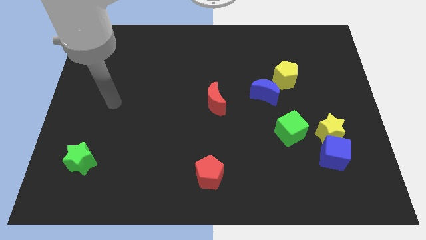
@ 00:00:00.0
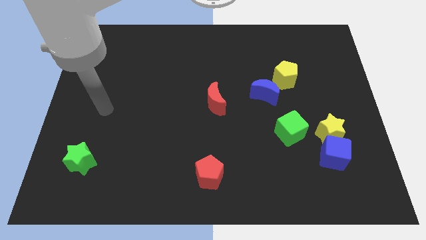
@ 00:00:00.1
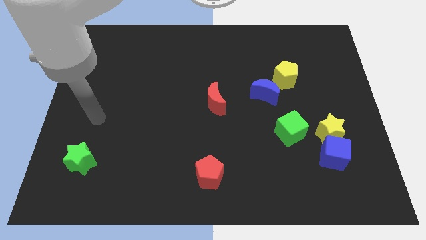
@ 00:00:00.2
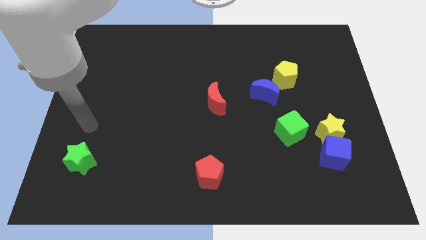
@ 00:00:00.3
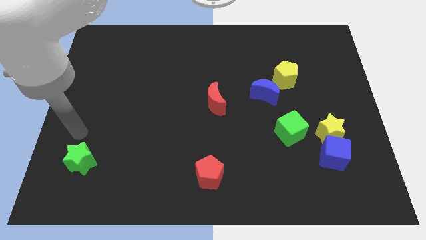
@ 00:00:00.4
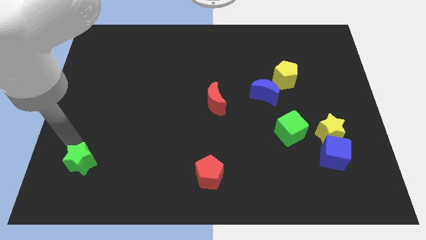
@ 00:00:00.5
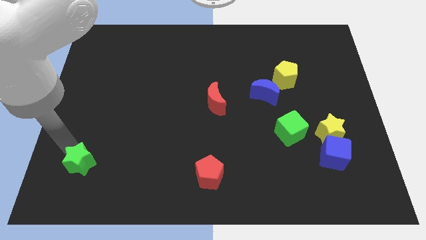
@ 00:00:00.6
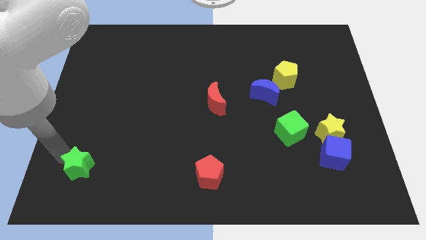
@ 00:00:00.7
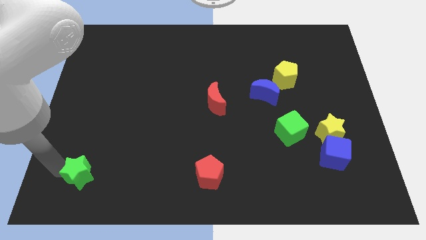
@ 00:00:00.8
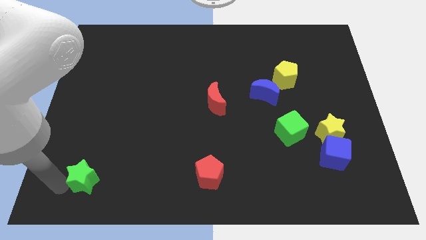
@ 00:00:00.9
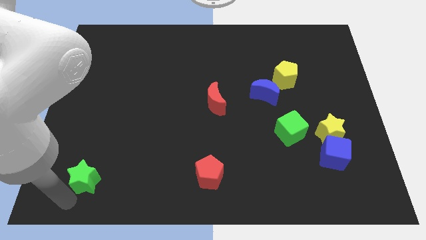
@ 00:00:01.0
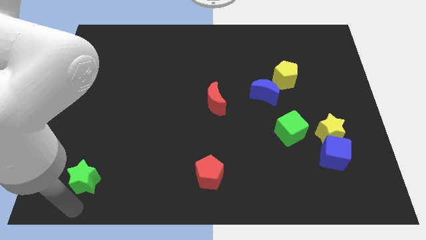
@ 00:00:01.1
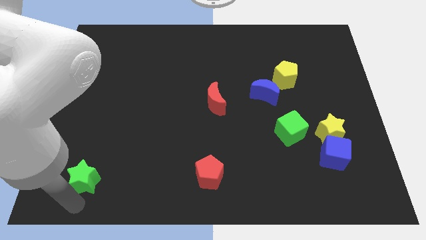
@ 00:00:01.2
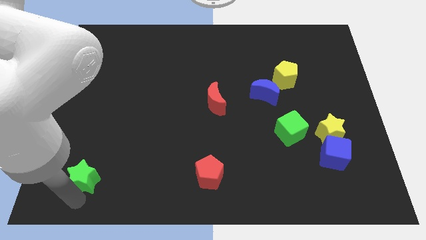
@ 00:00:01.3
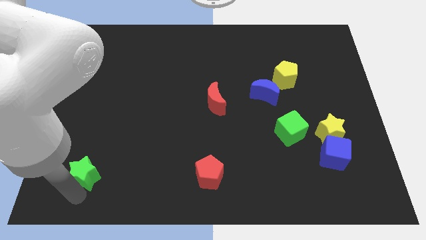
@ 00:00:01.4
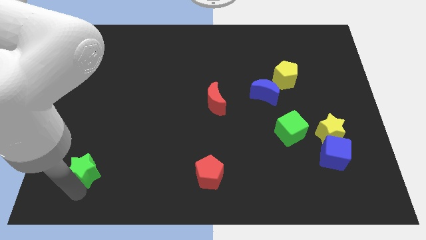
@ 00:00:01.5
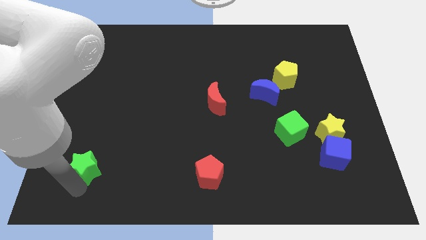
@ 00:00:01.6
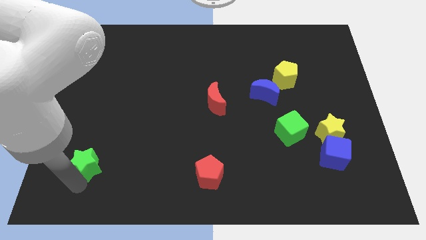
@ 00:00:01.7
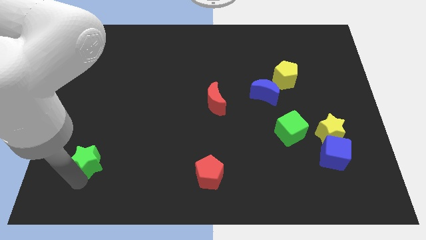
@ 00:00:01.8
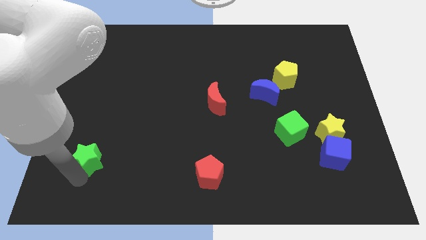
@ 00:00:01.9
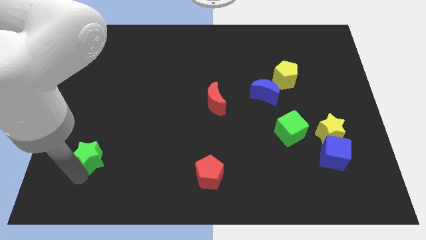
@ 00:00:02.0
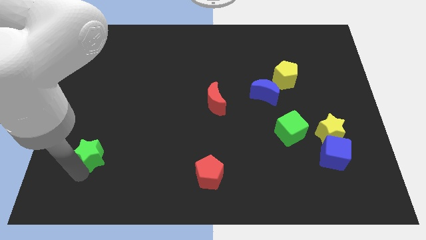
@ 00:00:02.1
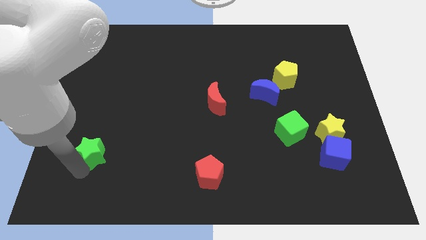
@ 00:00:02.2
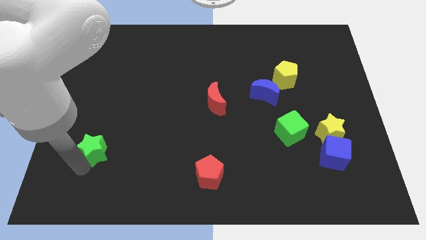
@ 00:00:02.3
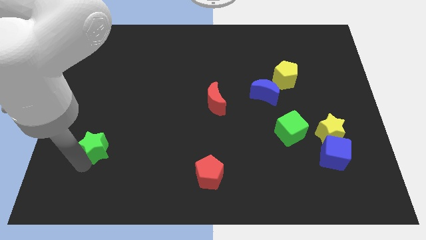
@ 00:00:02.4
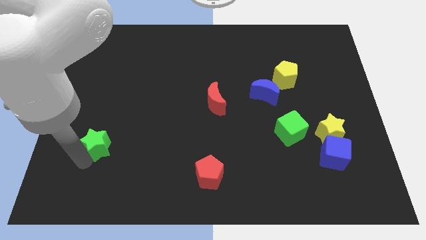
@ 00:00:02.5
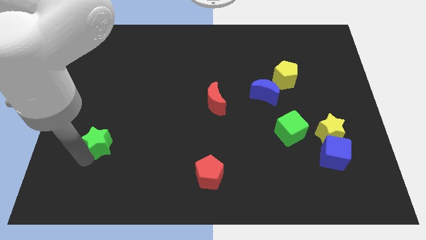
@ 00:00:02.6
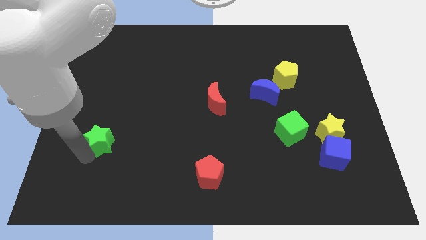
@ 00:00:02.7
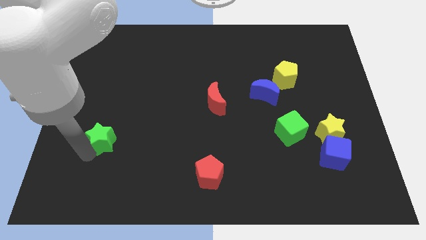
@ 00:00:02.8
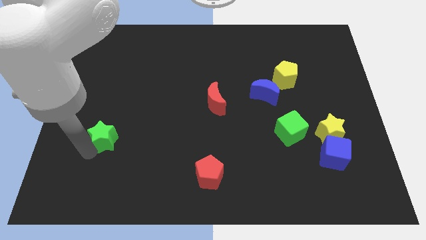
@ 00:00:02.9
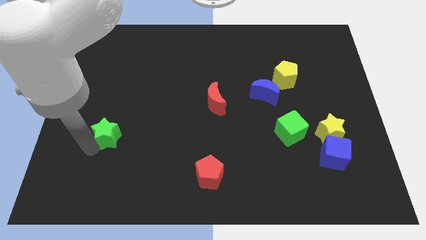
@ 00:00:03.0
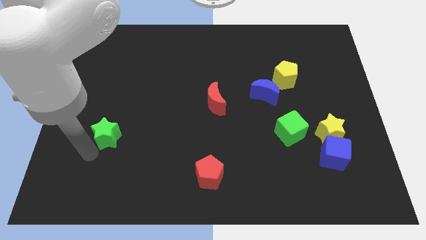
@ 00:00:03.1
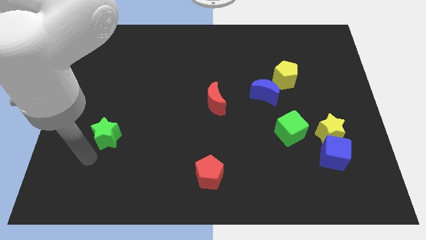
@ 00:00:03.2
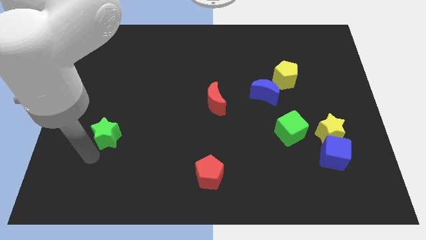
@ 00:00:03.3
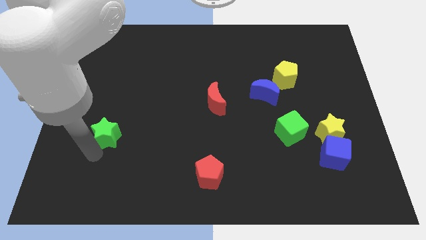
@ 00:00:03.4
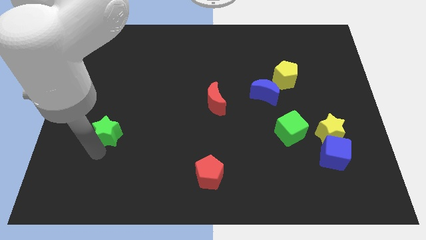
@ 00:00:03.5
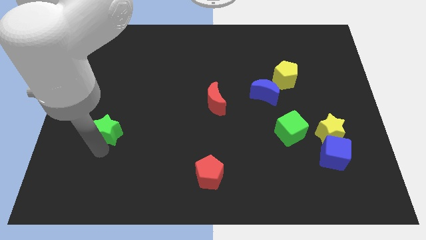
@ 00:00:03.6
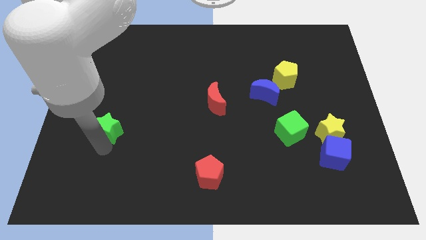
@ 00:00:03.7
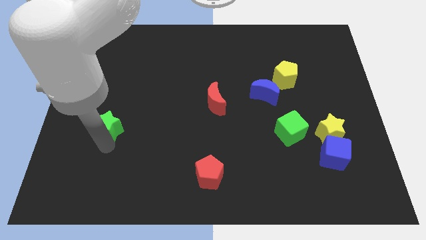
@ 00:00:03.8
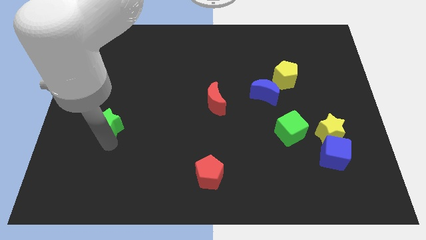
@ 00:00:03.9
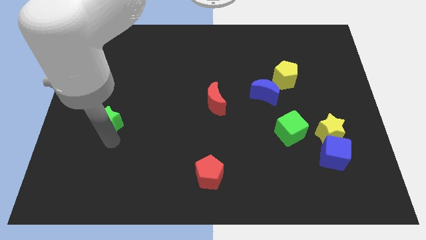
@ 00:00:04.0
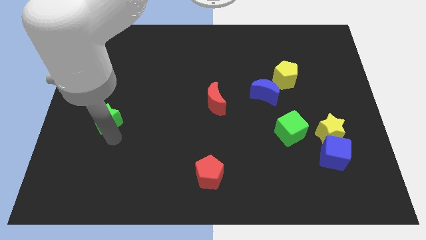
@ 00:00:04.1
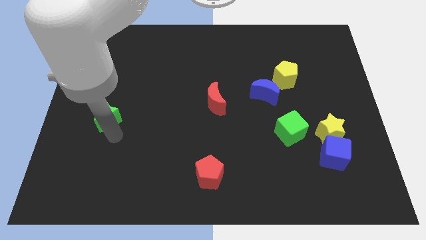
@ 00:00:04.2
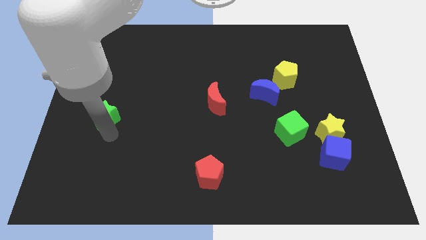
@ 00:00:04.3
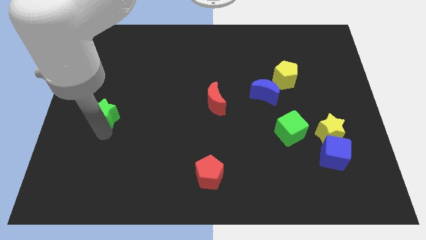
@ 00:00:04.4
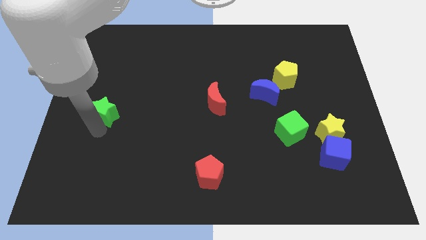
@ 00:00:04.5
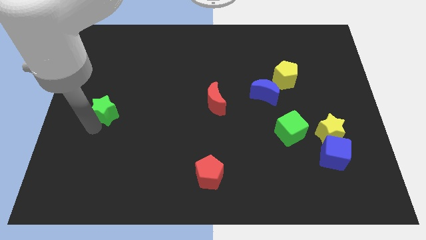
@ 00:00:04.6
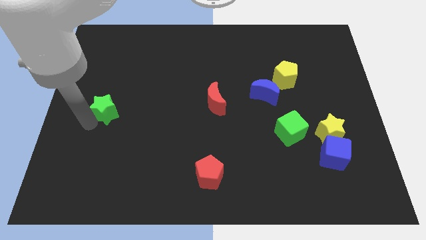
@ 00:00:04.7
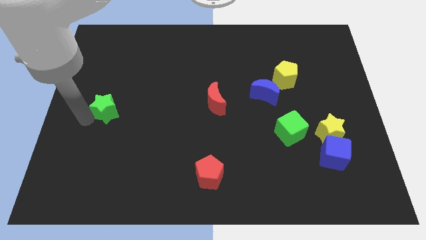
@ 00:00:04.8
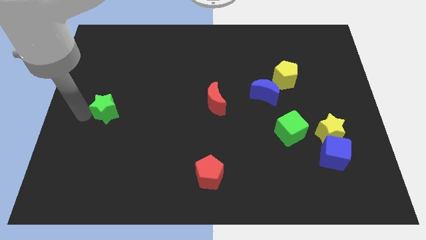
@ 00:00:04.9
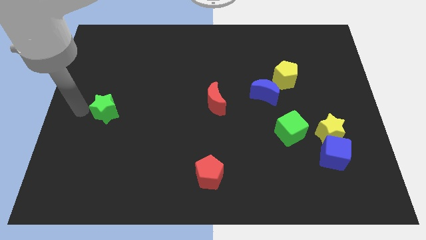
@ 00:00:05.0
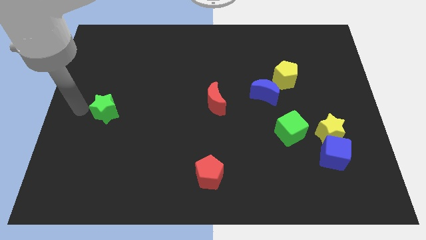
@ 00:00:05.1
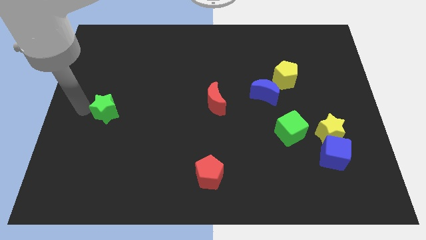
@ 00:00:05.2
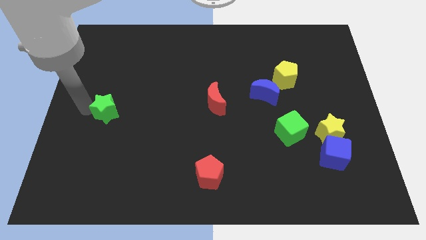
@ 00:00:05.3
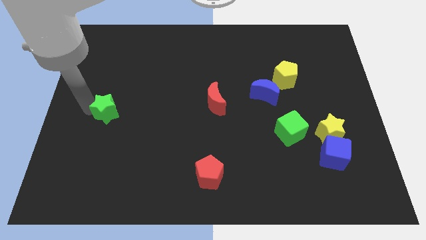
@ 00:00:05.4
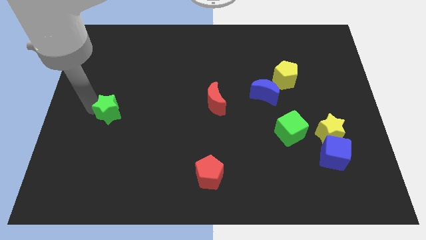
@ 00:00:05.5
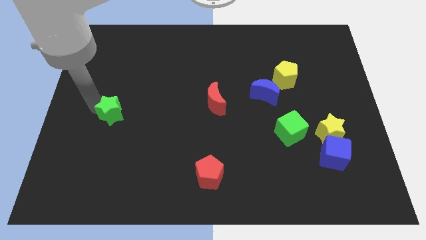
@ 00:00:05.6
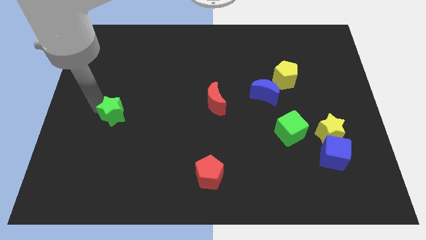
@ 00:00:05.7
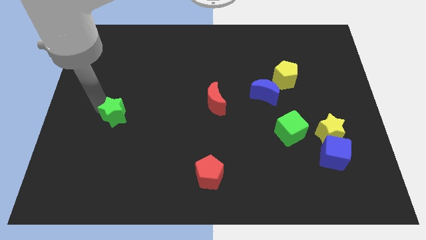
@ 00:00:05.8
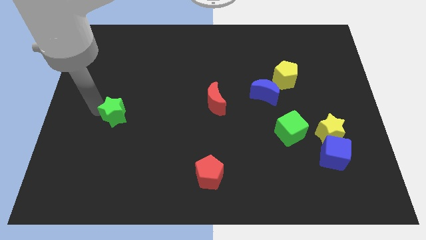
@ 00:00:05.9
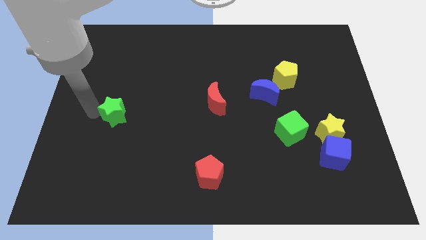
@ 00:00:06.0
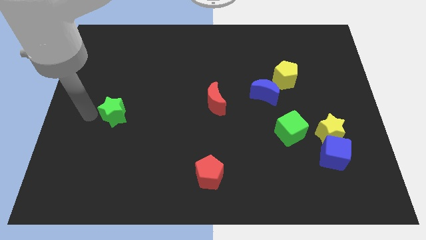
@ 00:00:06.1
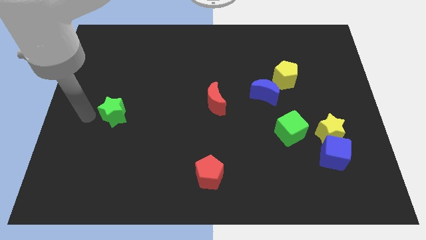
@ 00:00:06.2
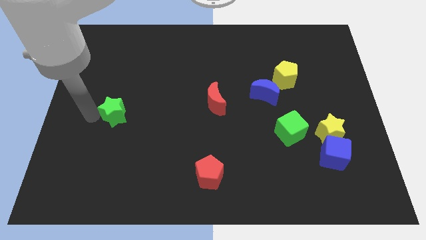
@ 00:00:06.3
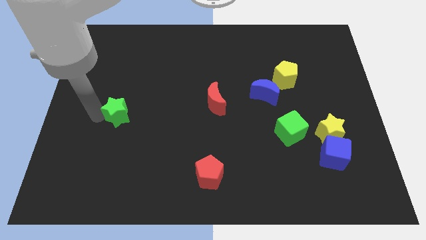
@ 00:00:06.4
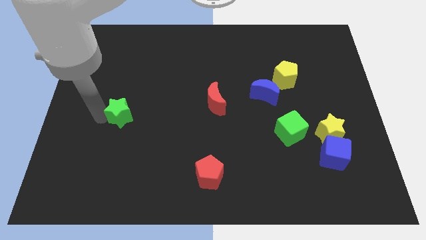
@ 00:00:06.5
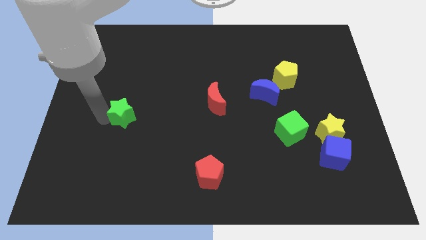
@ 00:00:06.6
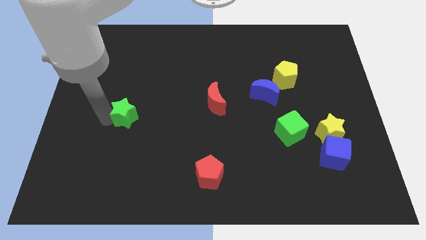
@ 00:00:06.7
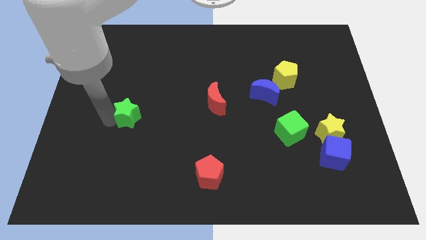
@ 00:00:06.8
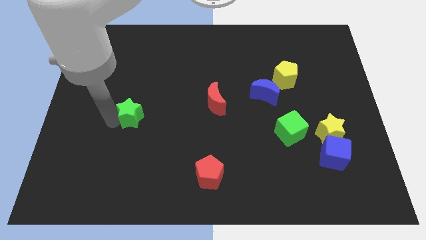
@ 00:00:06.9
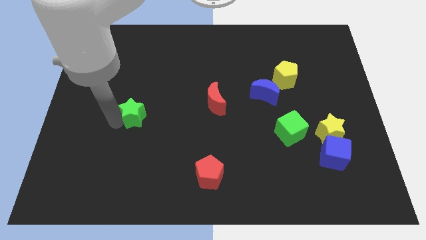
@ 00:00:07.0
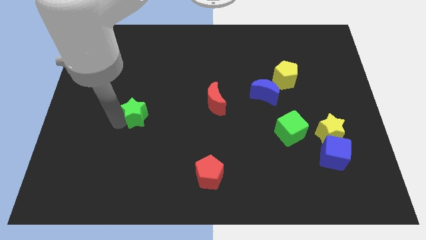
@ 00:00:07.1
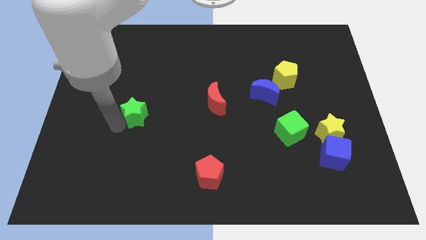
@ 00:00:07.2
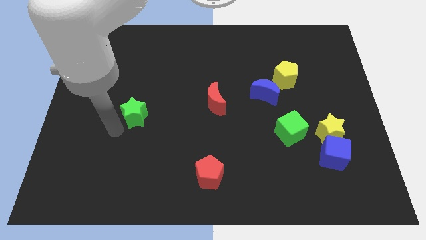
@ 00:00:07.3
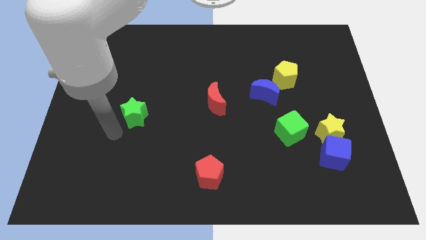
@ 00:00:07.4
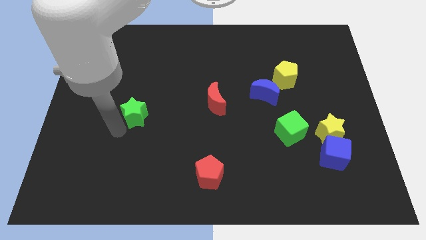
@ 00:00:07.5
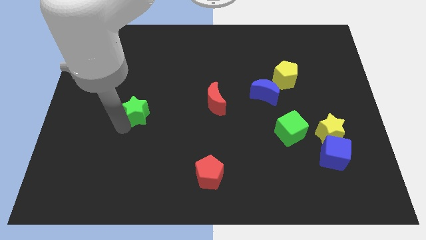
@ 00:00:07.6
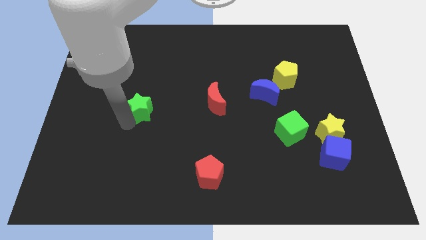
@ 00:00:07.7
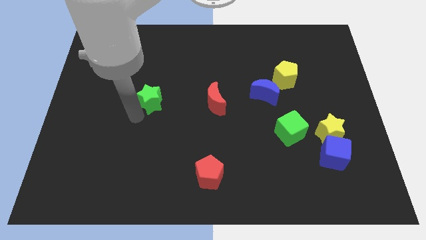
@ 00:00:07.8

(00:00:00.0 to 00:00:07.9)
move the green star diagonally upwards and right
